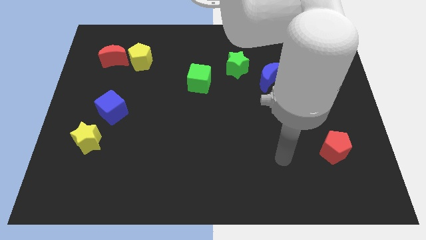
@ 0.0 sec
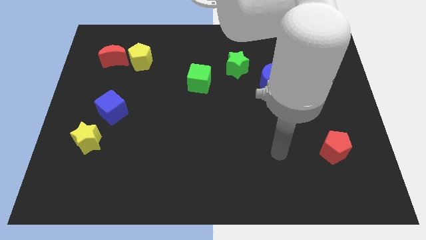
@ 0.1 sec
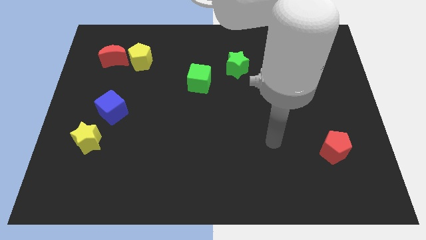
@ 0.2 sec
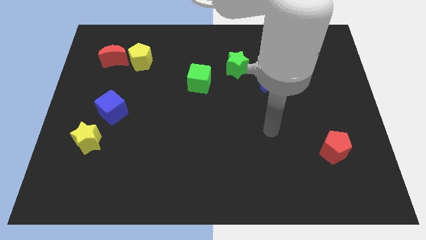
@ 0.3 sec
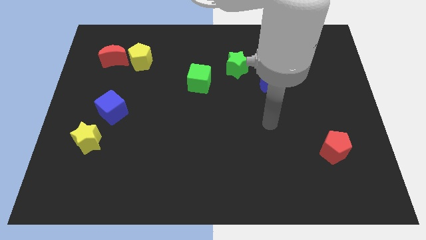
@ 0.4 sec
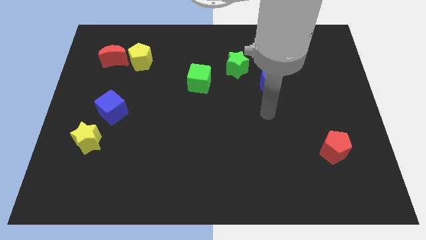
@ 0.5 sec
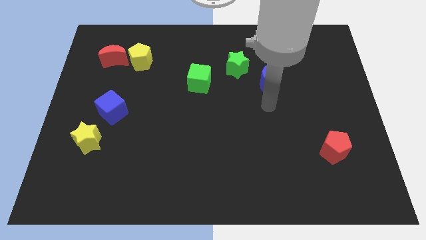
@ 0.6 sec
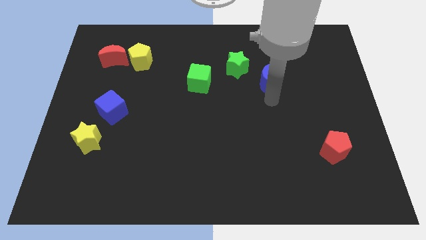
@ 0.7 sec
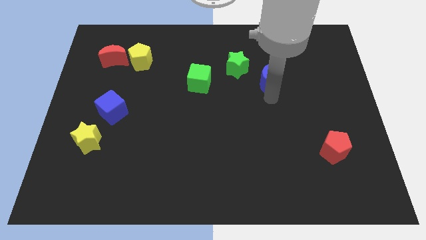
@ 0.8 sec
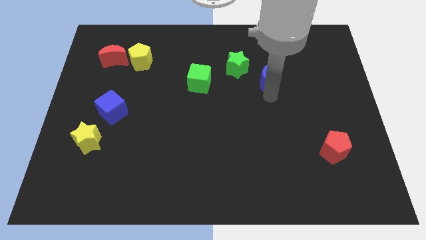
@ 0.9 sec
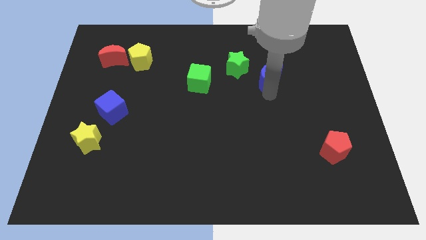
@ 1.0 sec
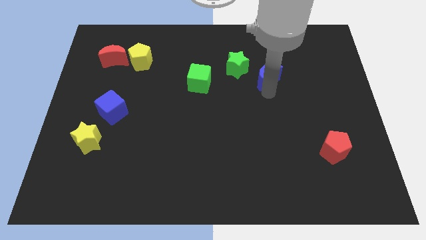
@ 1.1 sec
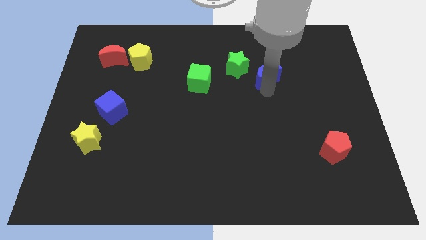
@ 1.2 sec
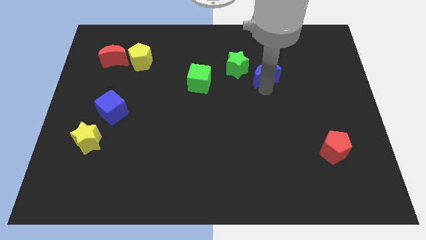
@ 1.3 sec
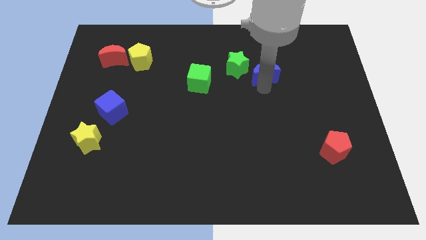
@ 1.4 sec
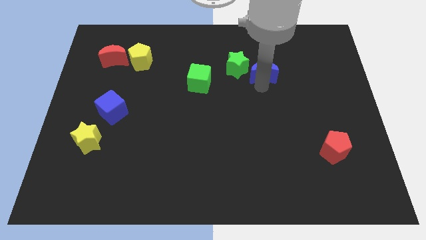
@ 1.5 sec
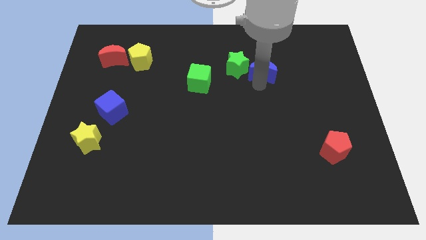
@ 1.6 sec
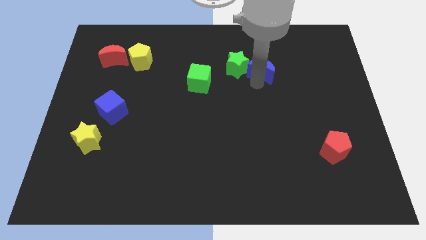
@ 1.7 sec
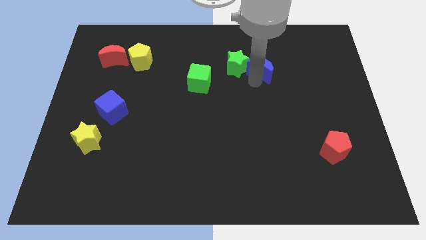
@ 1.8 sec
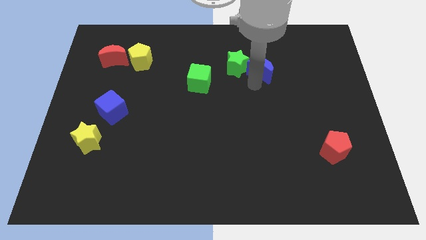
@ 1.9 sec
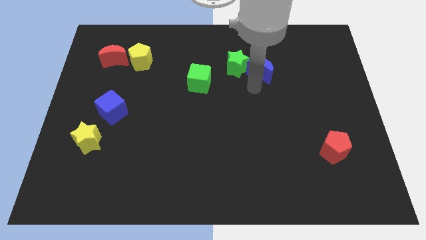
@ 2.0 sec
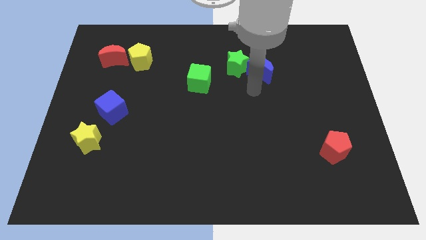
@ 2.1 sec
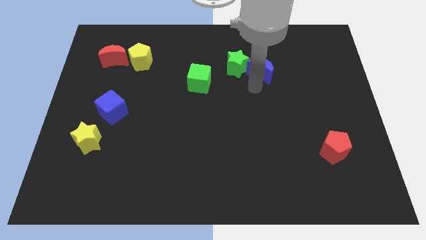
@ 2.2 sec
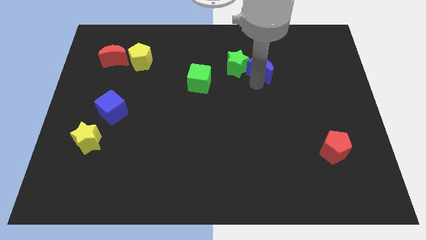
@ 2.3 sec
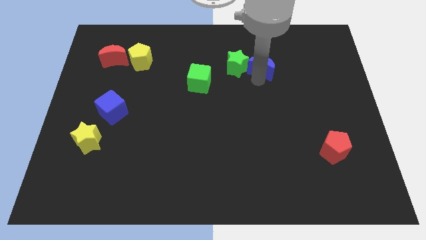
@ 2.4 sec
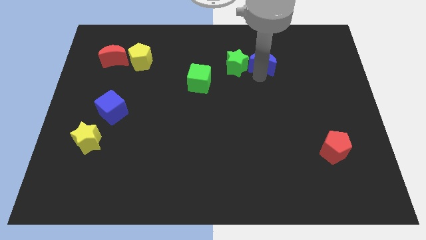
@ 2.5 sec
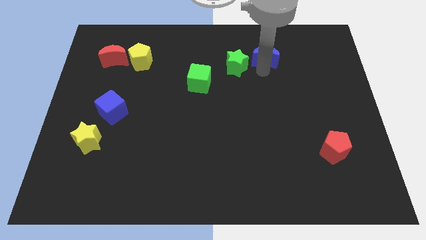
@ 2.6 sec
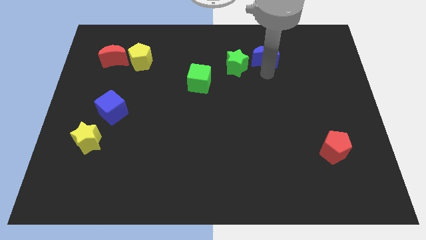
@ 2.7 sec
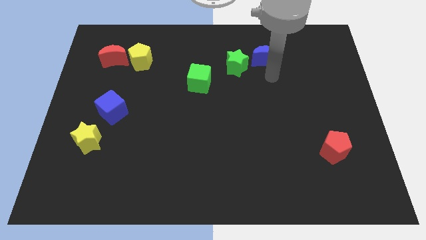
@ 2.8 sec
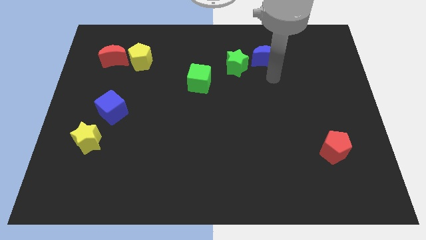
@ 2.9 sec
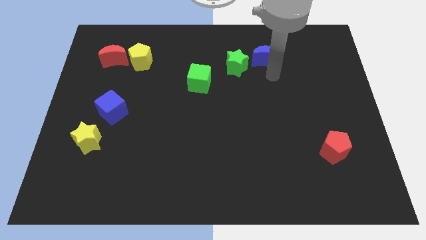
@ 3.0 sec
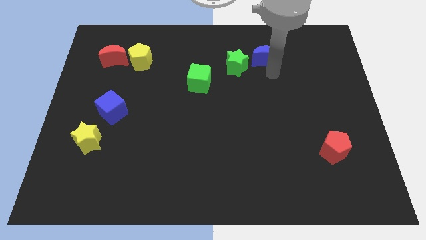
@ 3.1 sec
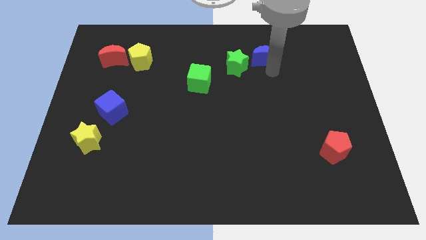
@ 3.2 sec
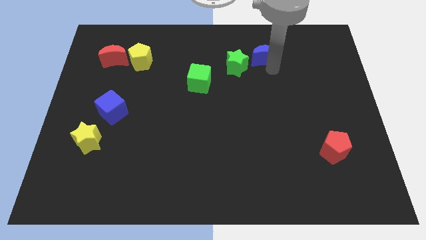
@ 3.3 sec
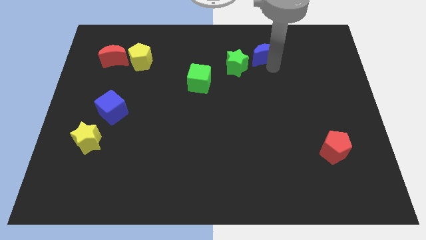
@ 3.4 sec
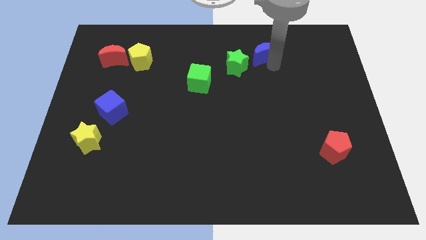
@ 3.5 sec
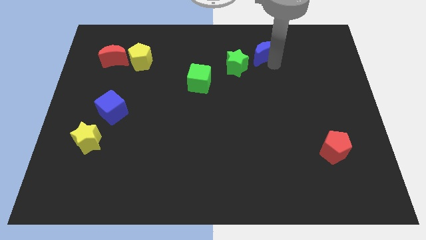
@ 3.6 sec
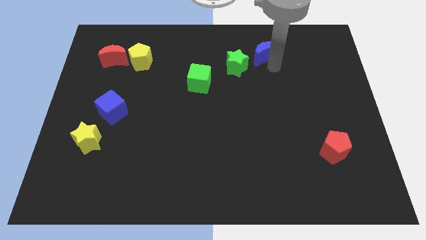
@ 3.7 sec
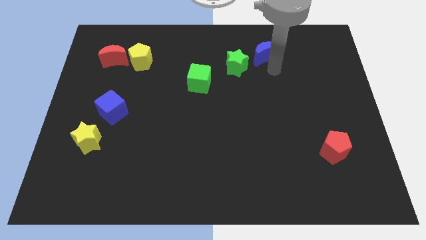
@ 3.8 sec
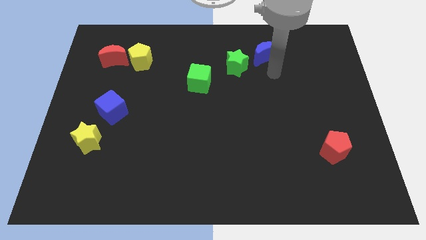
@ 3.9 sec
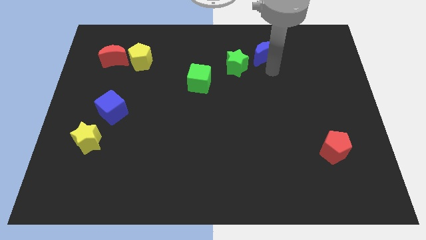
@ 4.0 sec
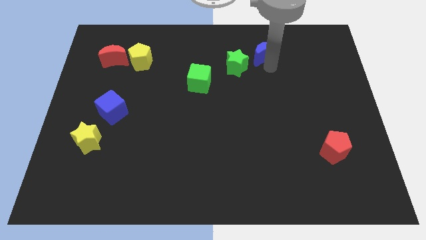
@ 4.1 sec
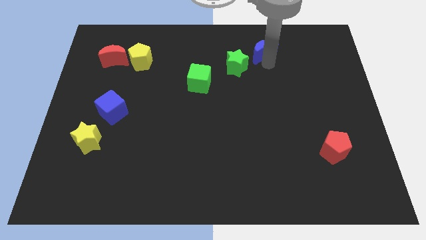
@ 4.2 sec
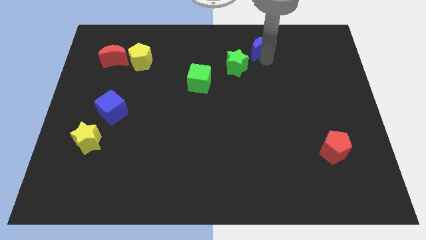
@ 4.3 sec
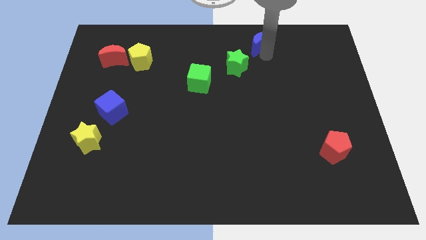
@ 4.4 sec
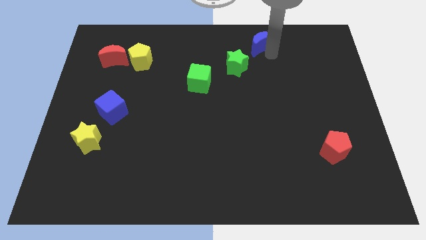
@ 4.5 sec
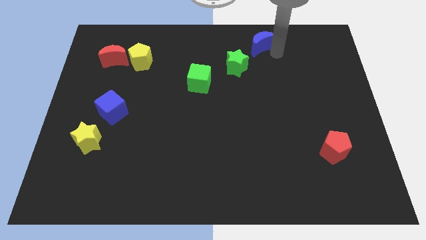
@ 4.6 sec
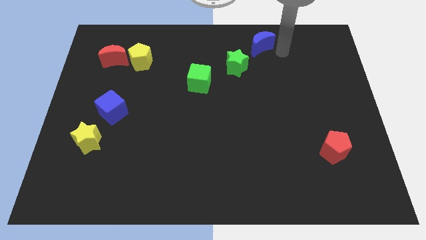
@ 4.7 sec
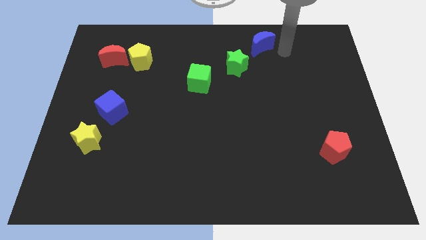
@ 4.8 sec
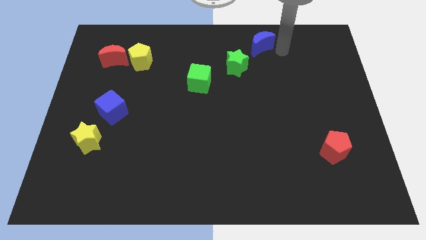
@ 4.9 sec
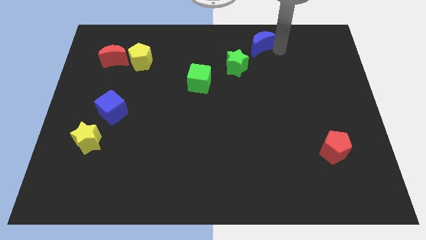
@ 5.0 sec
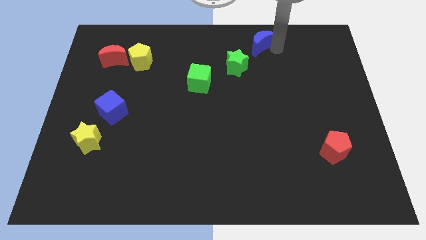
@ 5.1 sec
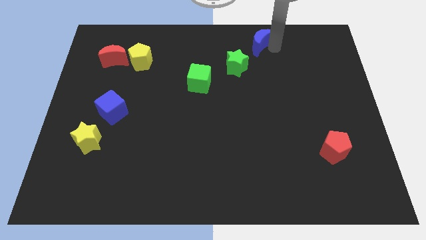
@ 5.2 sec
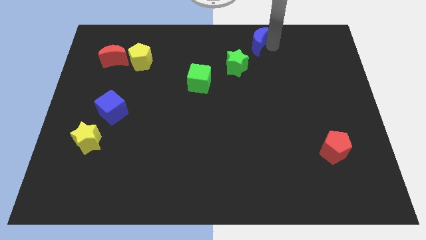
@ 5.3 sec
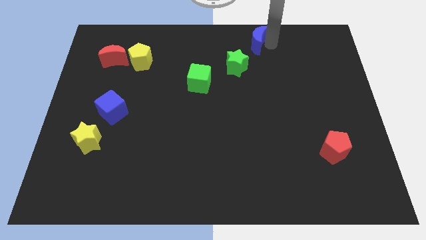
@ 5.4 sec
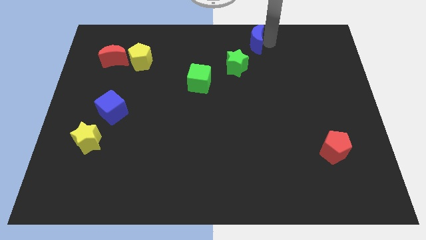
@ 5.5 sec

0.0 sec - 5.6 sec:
push the blue moon to the towards your base
